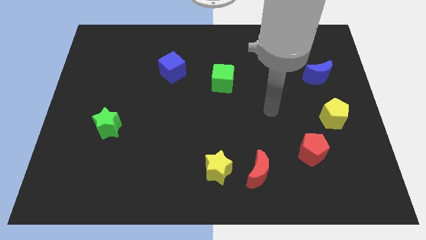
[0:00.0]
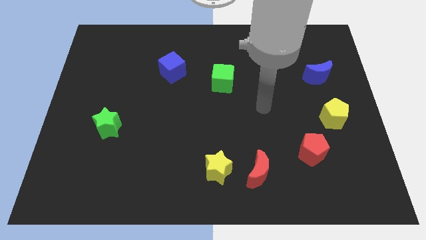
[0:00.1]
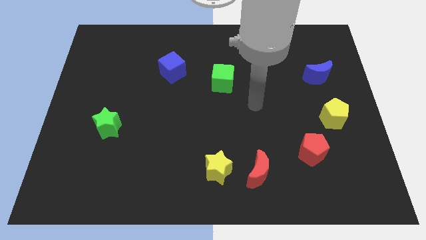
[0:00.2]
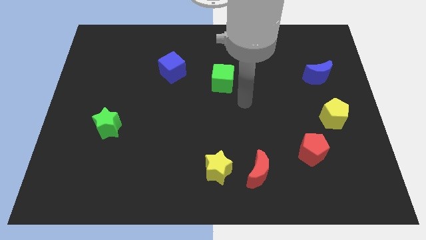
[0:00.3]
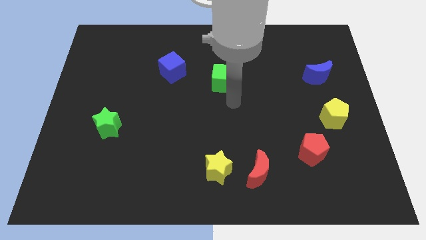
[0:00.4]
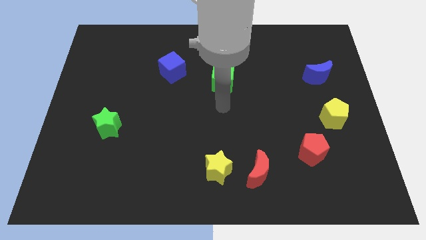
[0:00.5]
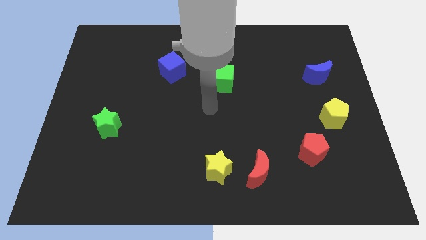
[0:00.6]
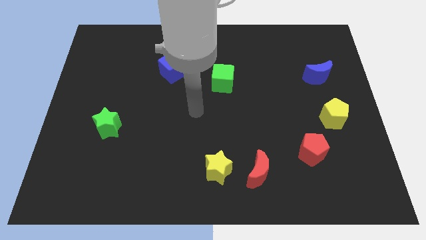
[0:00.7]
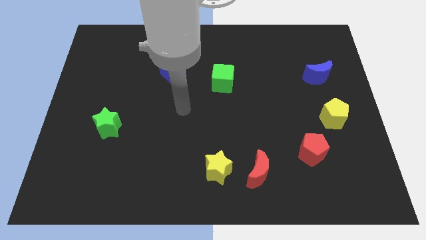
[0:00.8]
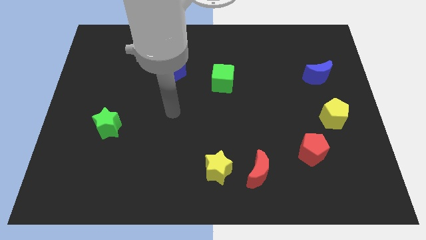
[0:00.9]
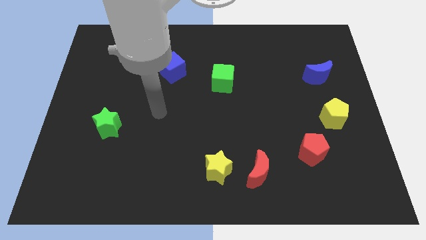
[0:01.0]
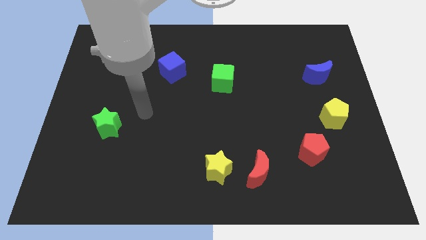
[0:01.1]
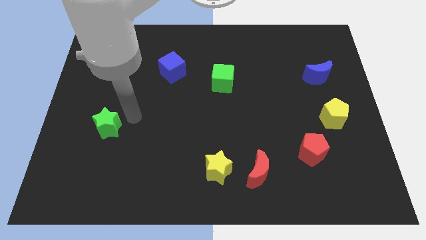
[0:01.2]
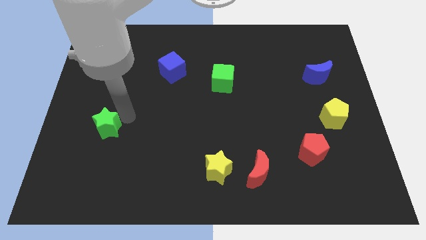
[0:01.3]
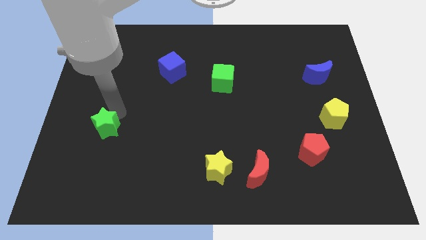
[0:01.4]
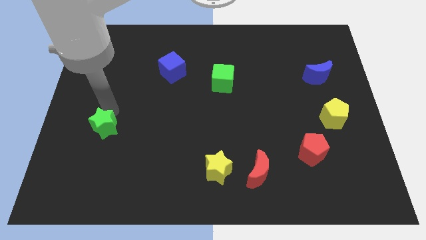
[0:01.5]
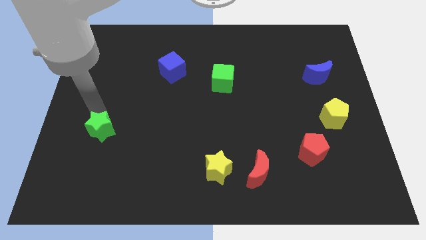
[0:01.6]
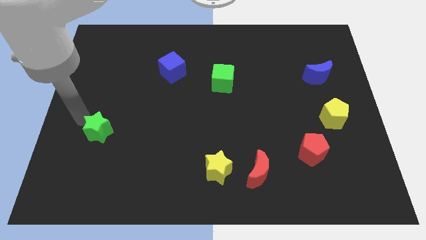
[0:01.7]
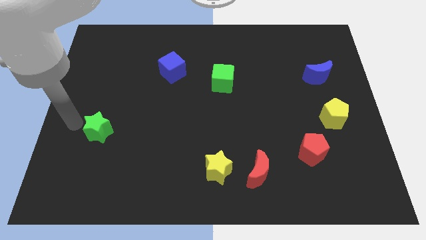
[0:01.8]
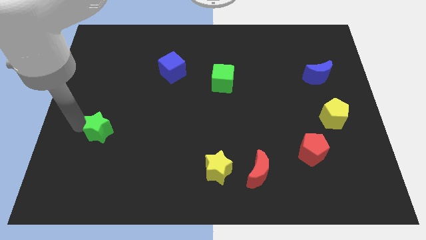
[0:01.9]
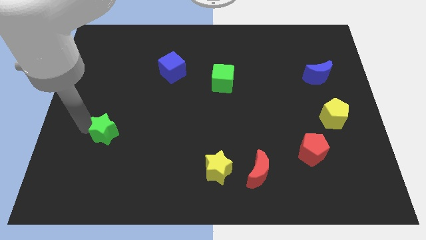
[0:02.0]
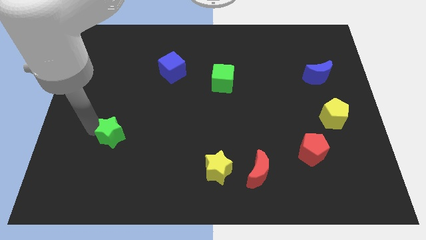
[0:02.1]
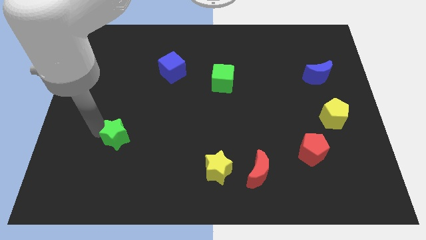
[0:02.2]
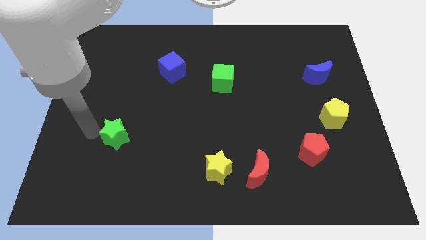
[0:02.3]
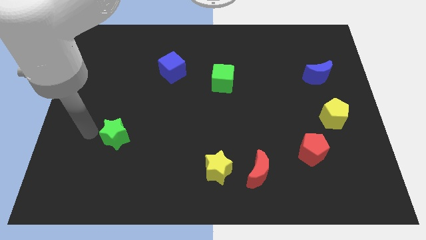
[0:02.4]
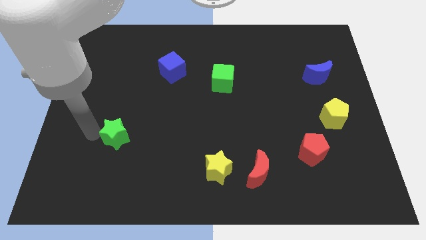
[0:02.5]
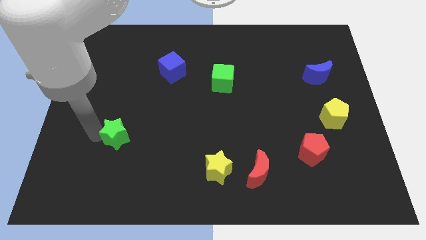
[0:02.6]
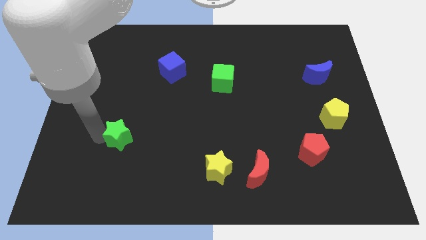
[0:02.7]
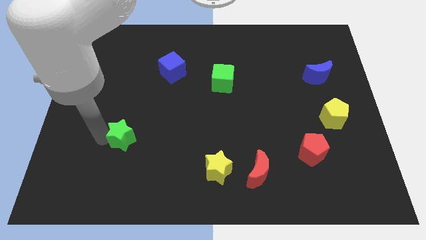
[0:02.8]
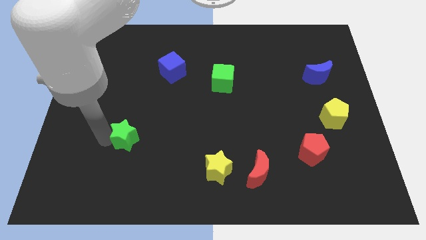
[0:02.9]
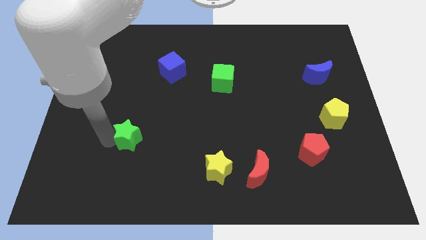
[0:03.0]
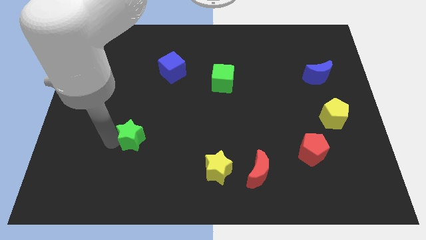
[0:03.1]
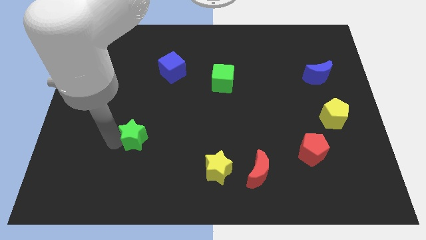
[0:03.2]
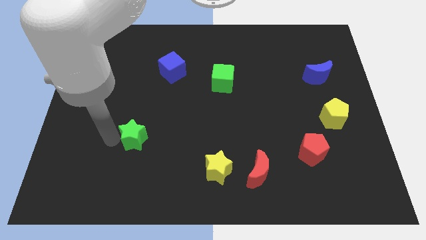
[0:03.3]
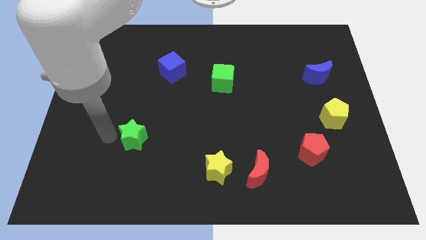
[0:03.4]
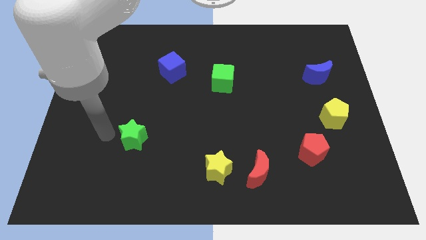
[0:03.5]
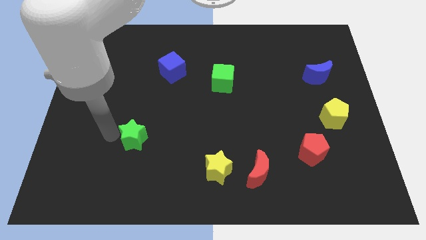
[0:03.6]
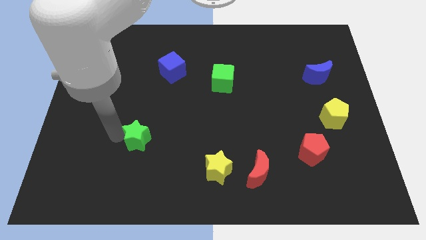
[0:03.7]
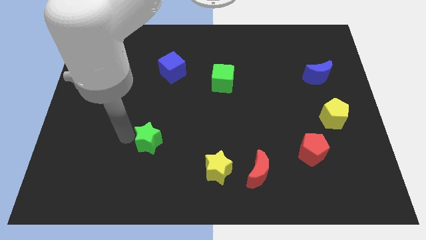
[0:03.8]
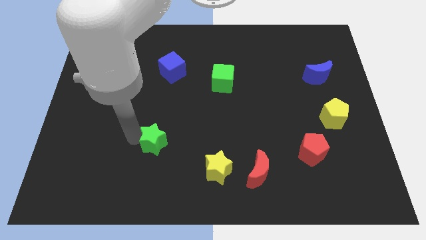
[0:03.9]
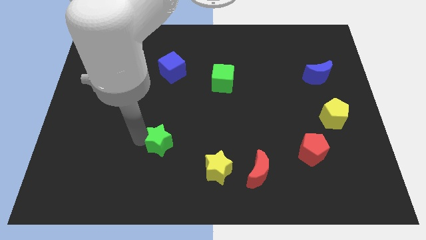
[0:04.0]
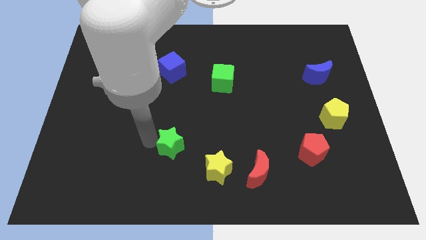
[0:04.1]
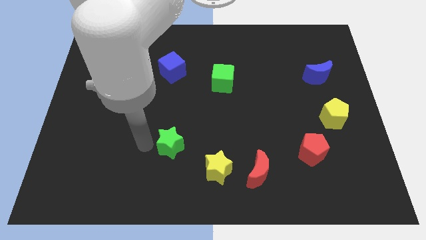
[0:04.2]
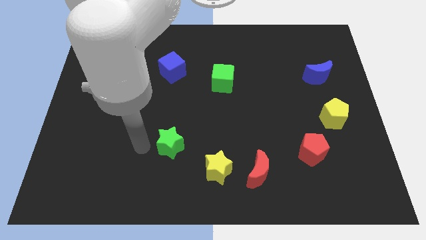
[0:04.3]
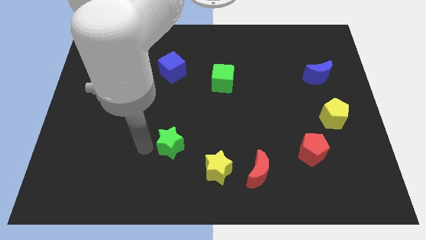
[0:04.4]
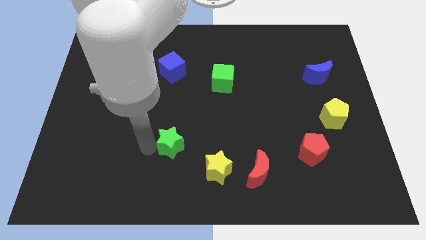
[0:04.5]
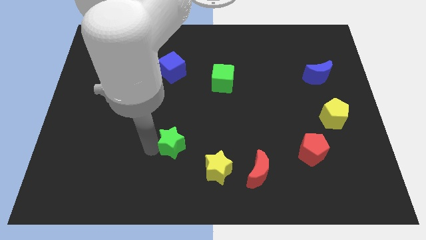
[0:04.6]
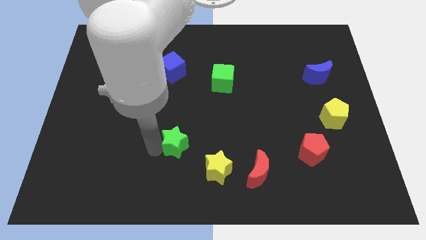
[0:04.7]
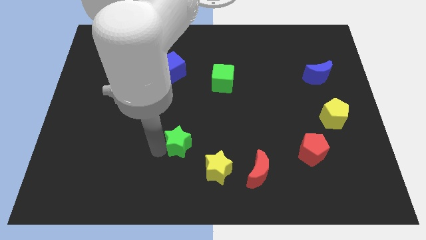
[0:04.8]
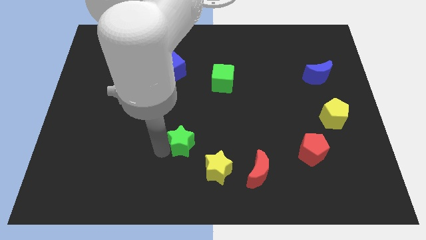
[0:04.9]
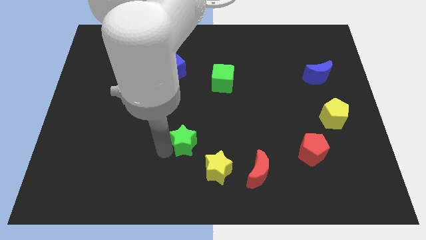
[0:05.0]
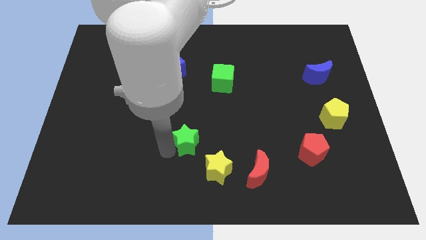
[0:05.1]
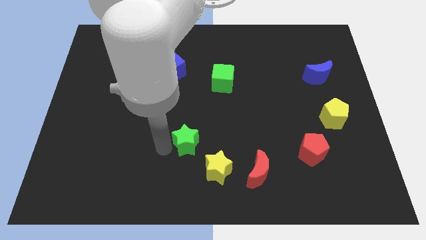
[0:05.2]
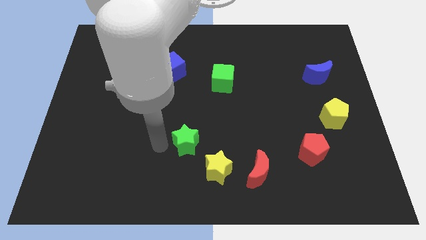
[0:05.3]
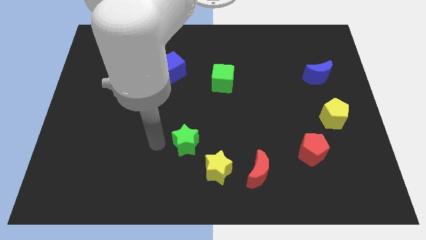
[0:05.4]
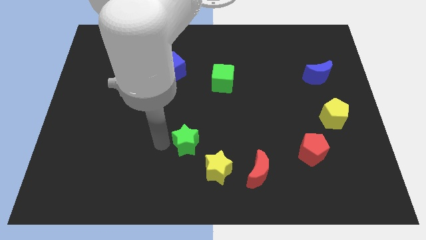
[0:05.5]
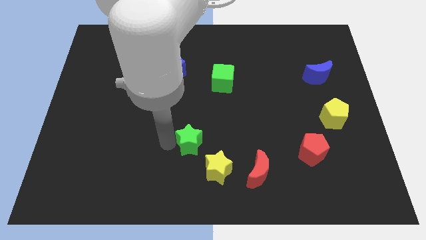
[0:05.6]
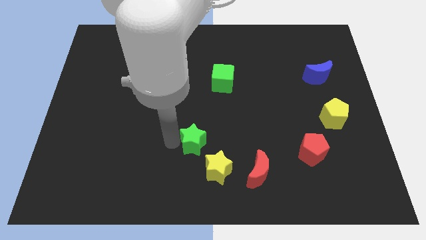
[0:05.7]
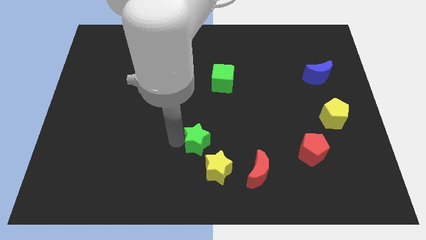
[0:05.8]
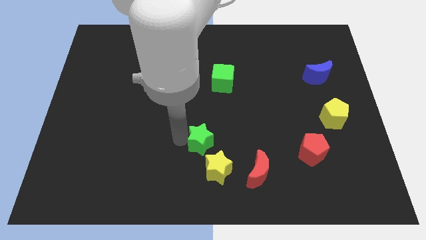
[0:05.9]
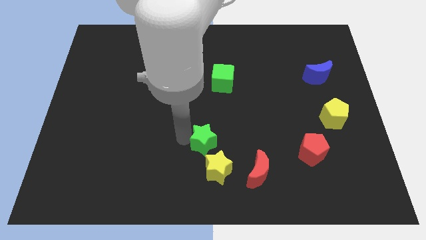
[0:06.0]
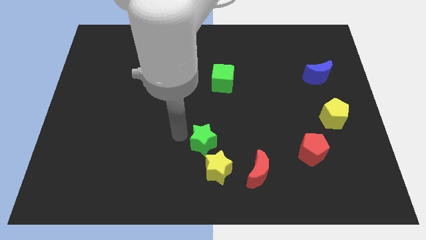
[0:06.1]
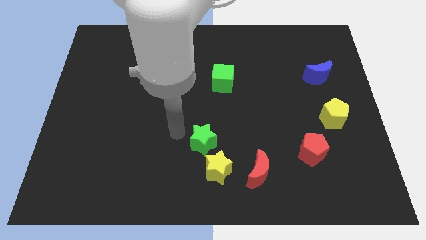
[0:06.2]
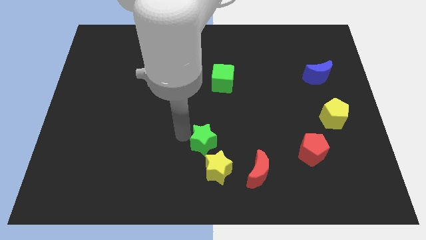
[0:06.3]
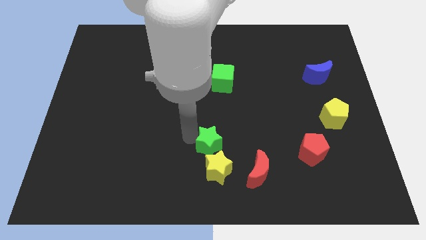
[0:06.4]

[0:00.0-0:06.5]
slide the green star to the top left side of the red moon
